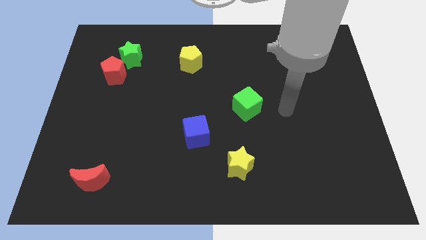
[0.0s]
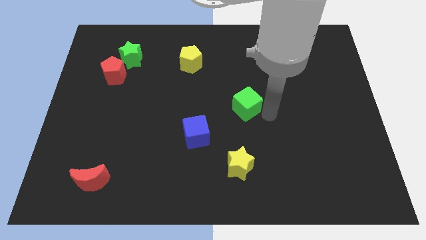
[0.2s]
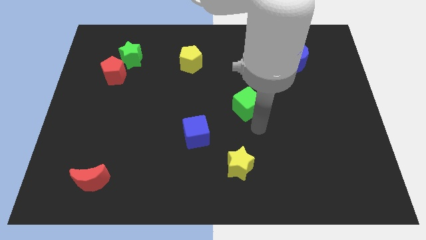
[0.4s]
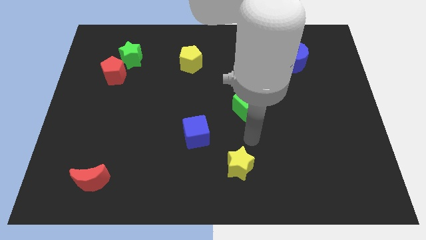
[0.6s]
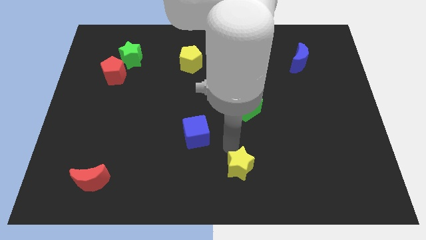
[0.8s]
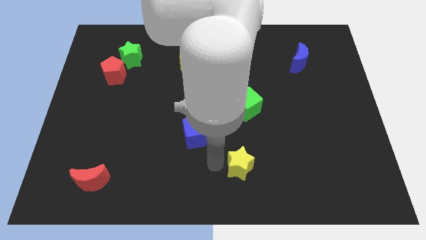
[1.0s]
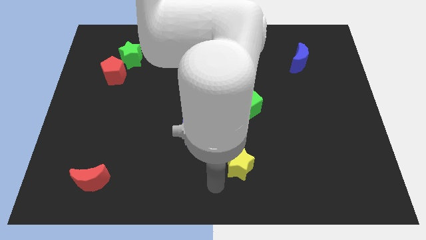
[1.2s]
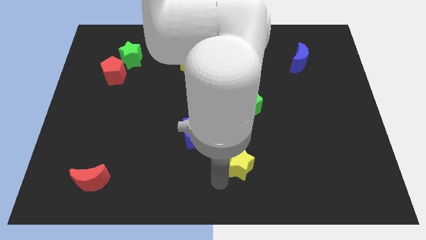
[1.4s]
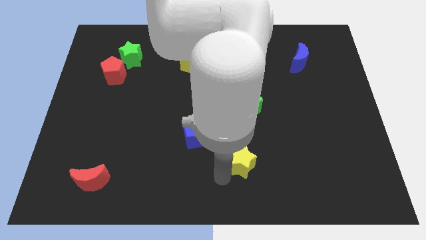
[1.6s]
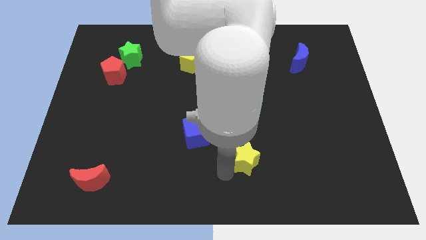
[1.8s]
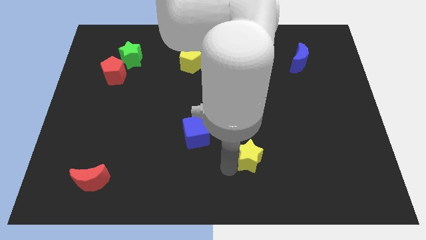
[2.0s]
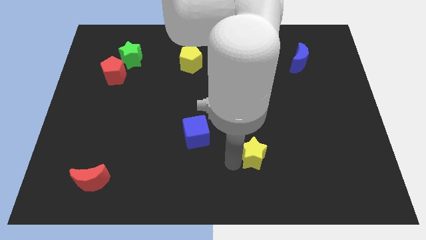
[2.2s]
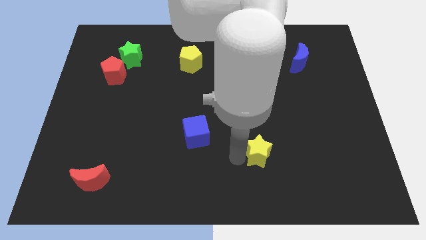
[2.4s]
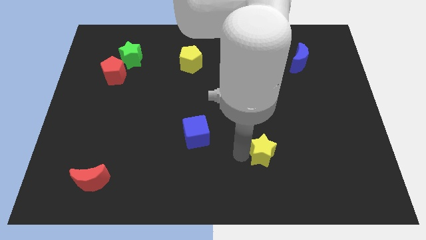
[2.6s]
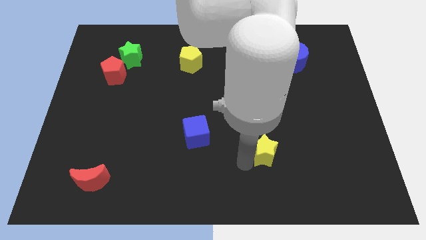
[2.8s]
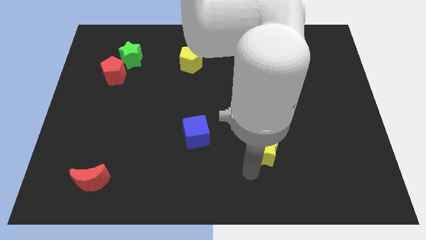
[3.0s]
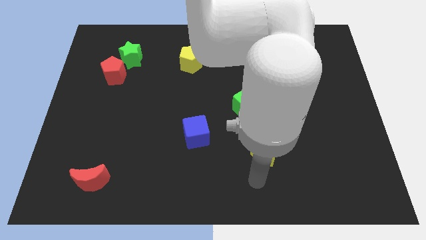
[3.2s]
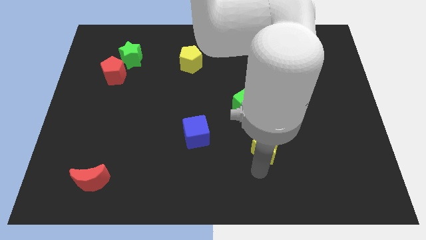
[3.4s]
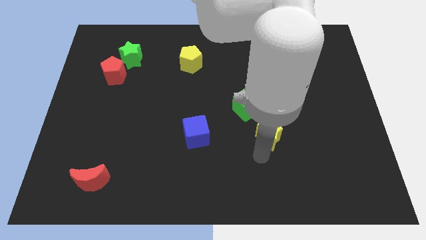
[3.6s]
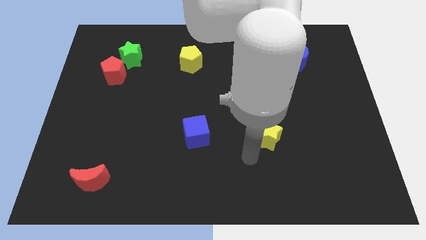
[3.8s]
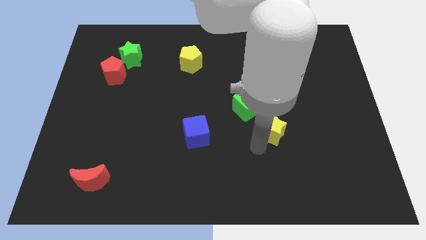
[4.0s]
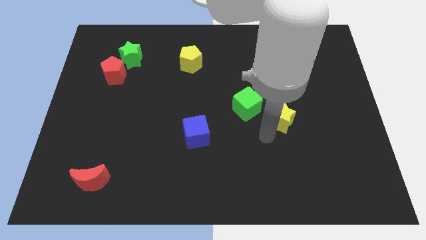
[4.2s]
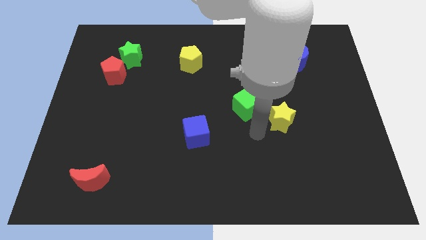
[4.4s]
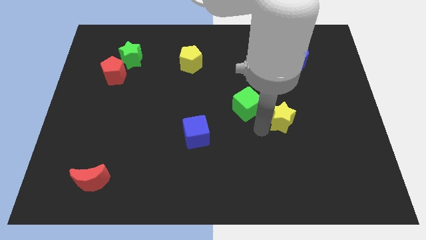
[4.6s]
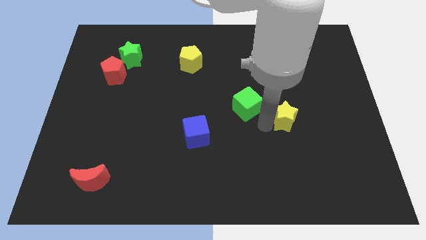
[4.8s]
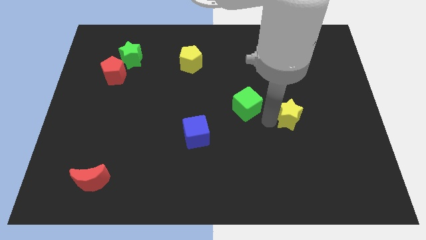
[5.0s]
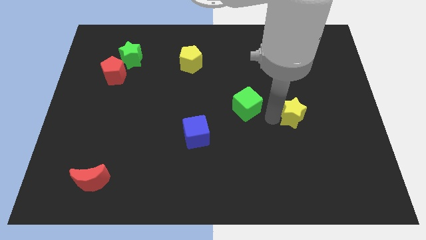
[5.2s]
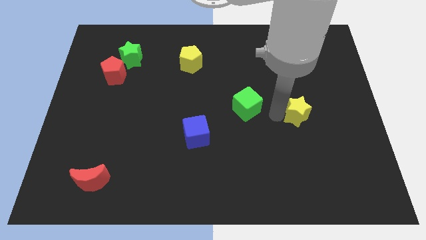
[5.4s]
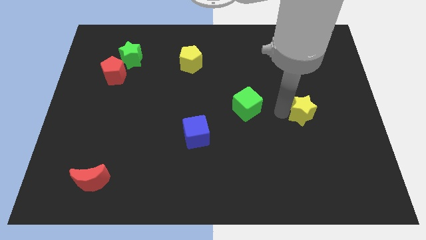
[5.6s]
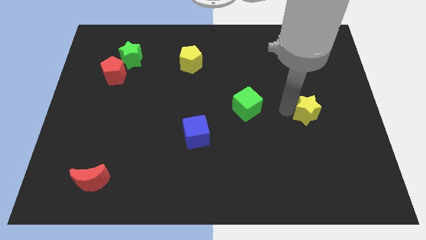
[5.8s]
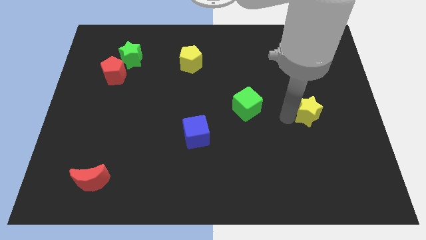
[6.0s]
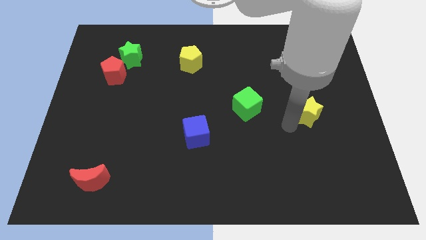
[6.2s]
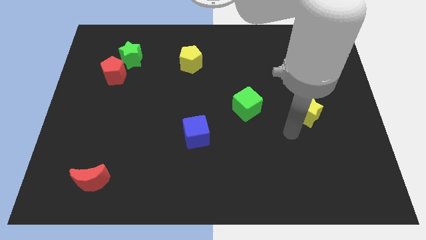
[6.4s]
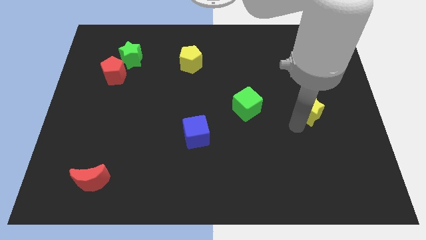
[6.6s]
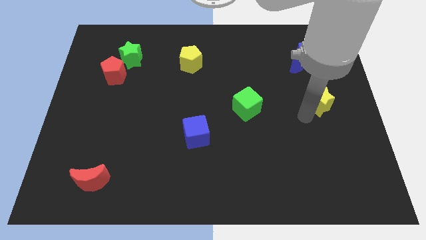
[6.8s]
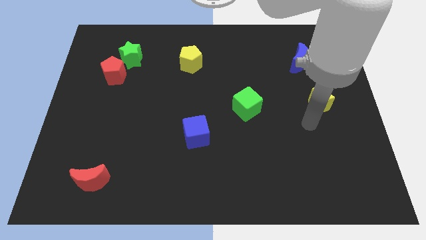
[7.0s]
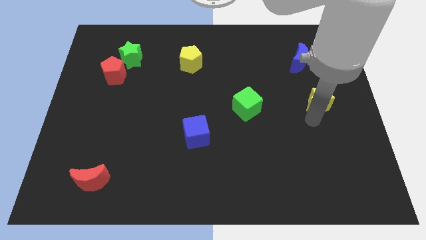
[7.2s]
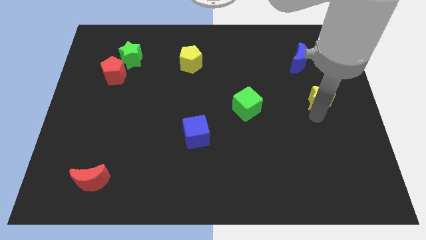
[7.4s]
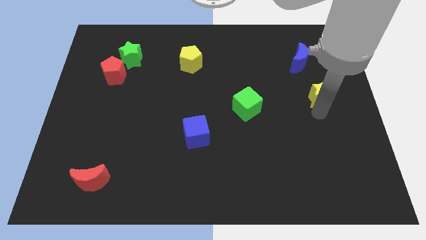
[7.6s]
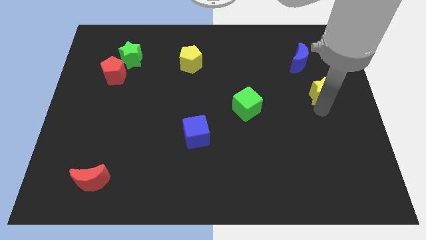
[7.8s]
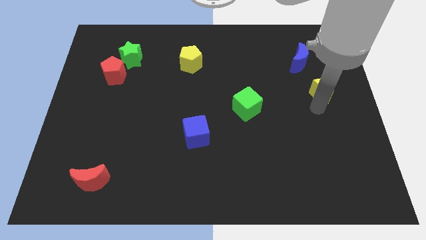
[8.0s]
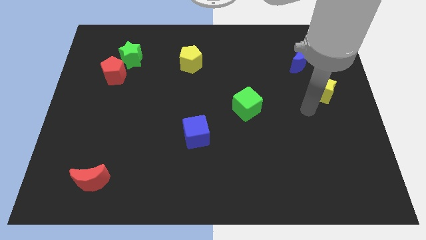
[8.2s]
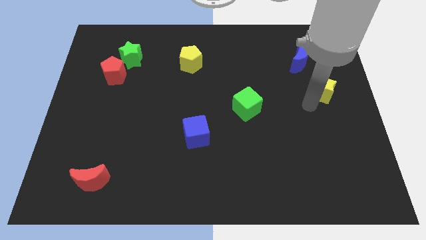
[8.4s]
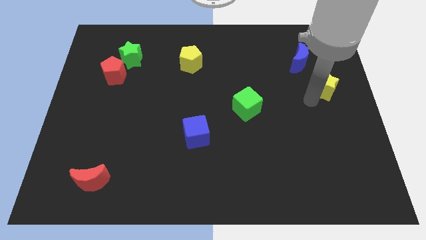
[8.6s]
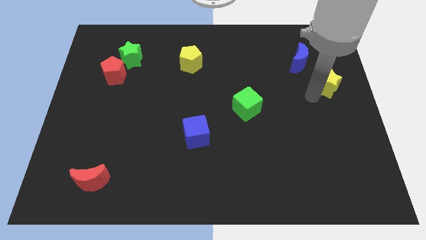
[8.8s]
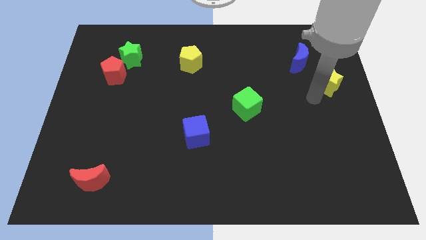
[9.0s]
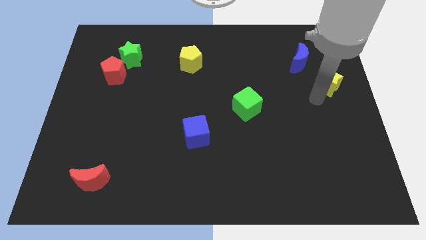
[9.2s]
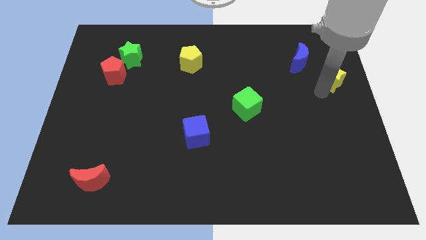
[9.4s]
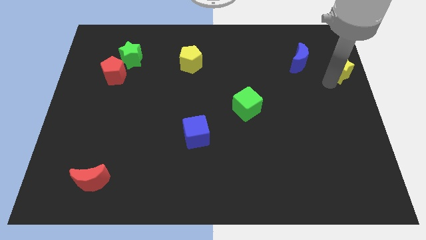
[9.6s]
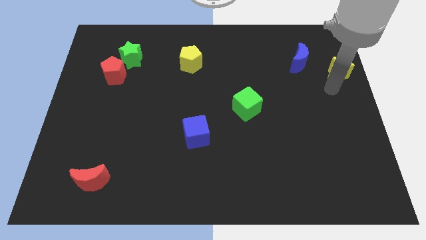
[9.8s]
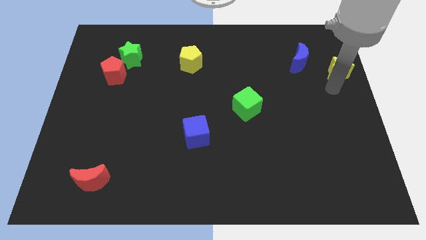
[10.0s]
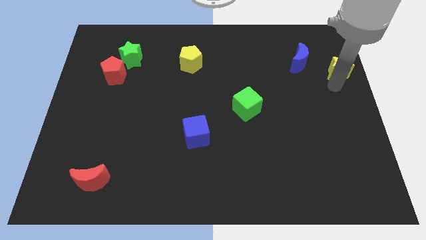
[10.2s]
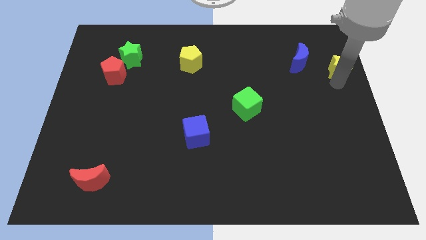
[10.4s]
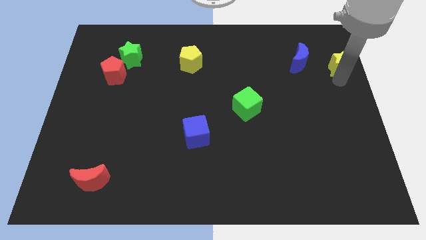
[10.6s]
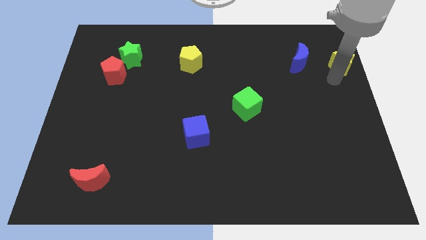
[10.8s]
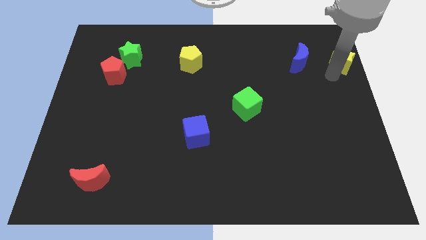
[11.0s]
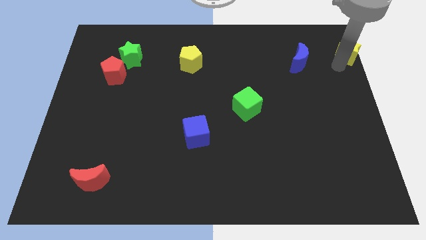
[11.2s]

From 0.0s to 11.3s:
push the yellow star to the top right of the board
